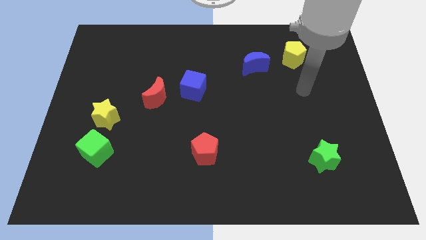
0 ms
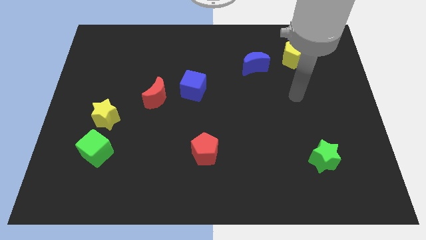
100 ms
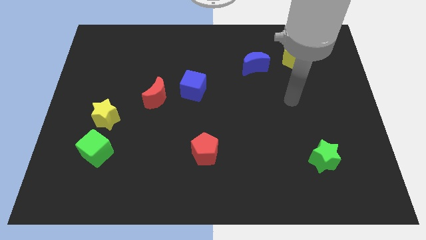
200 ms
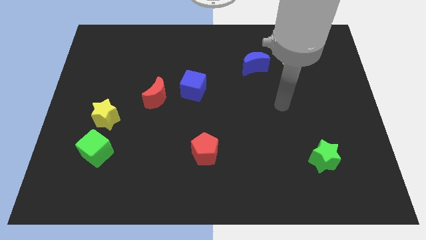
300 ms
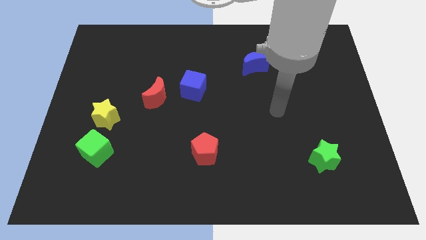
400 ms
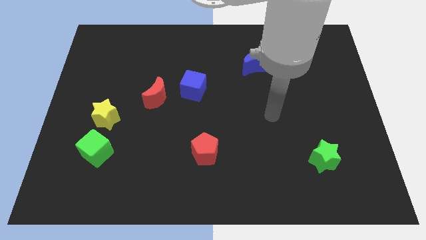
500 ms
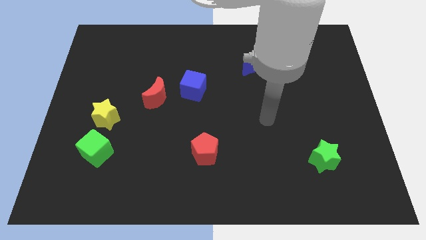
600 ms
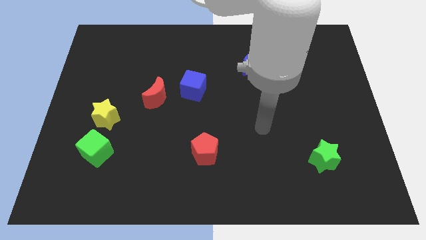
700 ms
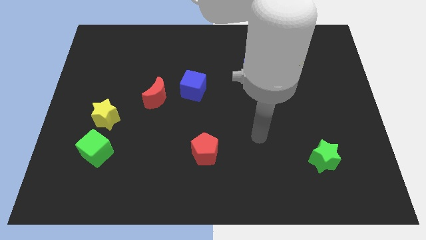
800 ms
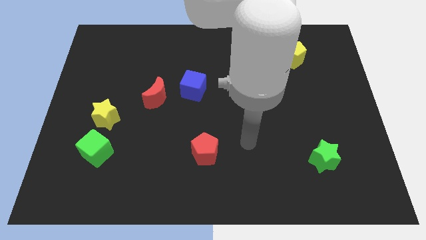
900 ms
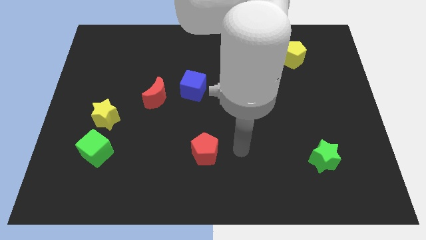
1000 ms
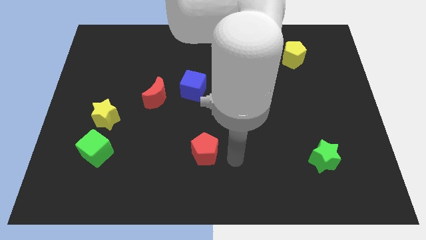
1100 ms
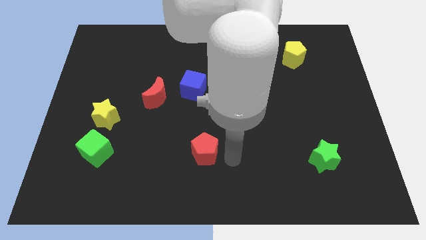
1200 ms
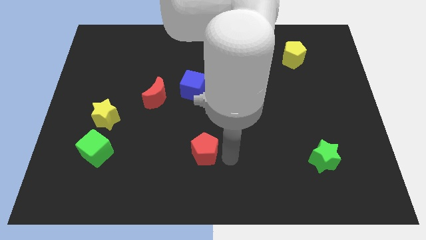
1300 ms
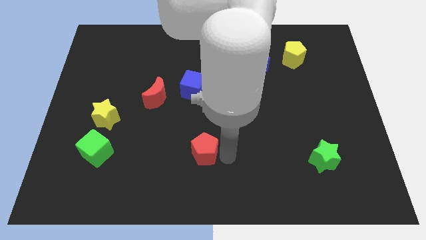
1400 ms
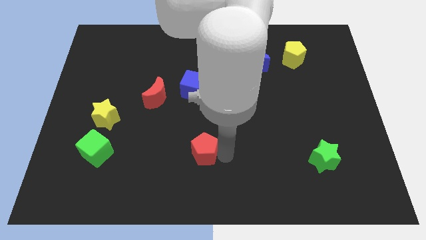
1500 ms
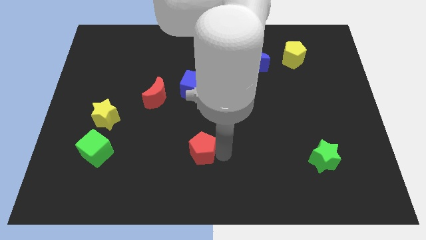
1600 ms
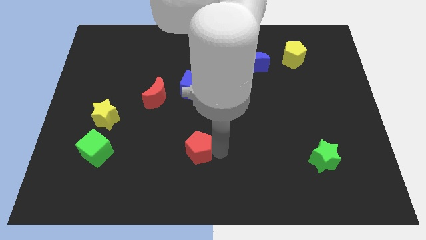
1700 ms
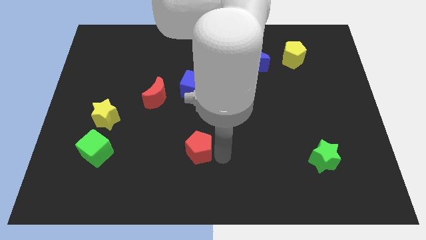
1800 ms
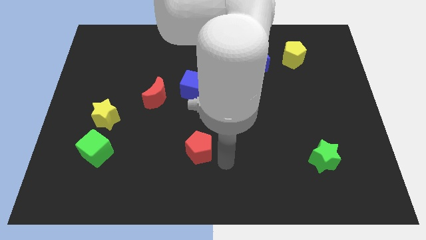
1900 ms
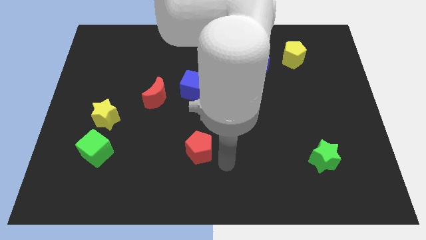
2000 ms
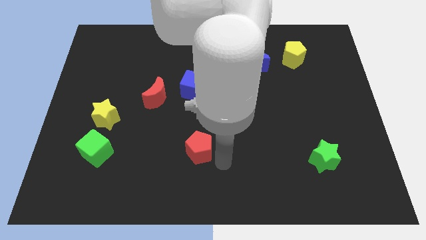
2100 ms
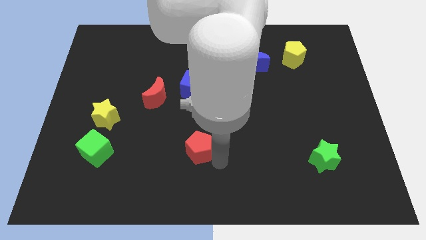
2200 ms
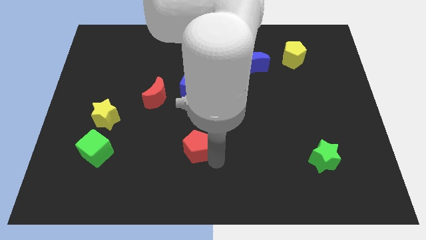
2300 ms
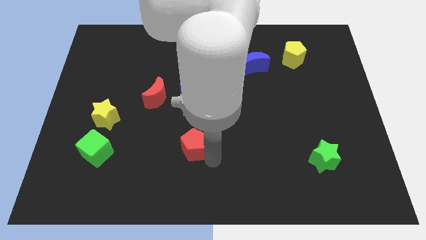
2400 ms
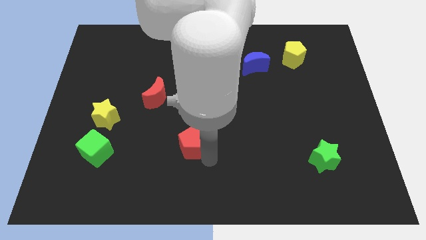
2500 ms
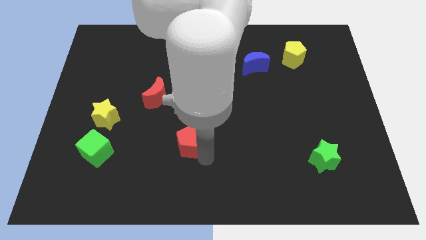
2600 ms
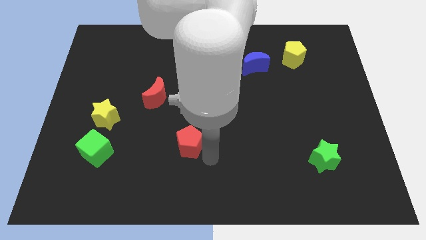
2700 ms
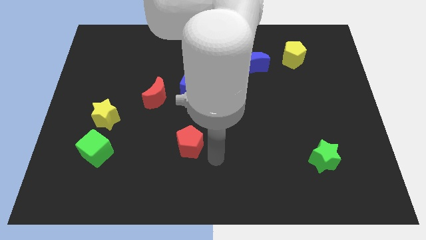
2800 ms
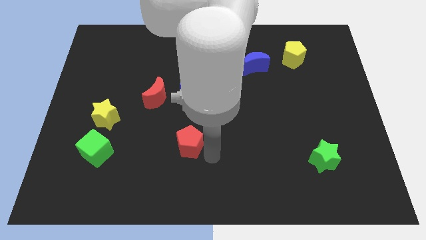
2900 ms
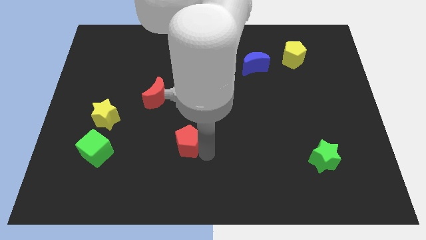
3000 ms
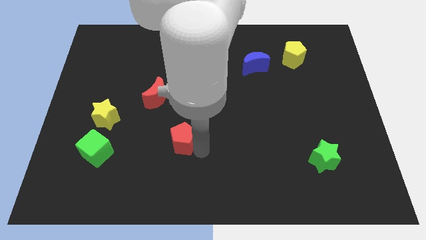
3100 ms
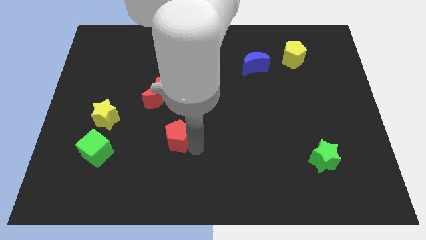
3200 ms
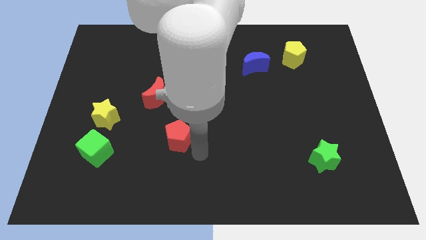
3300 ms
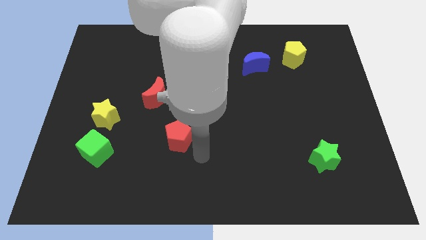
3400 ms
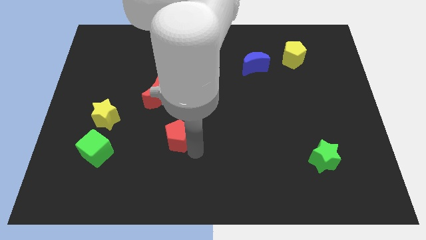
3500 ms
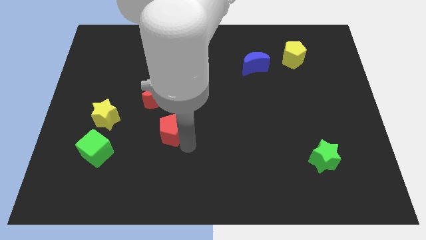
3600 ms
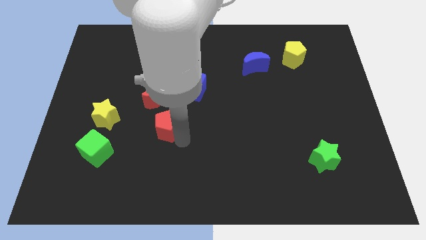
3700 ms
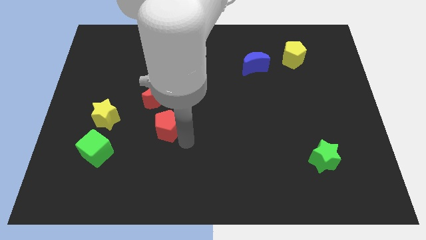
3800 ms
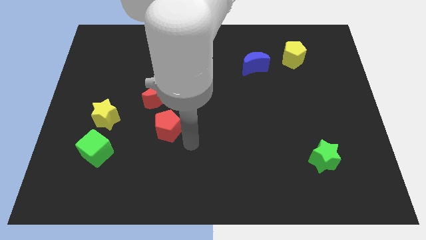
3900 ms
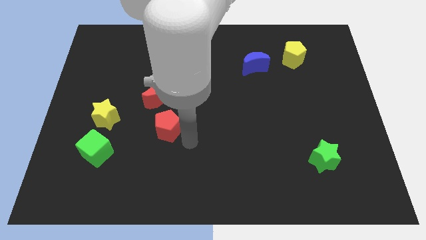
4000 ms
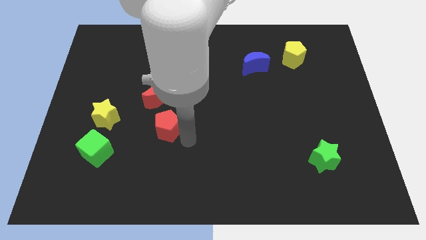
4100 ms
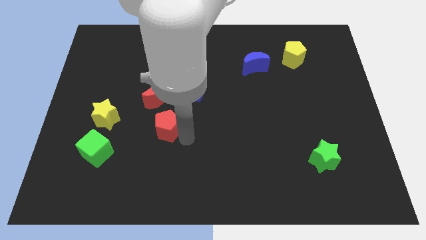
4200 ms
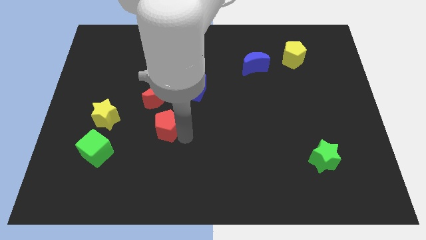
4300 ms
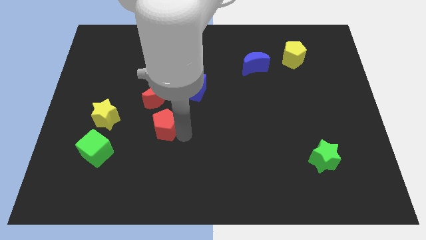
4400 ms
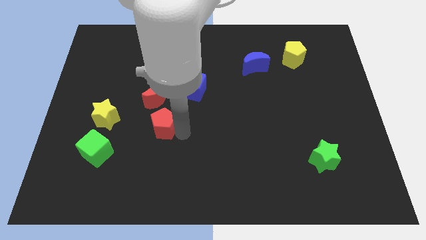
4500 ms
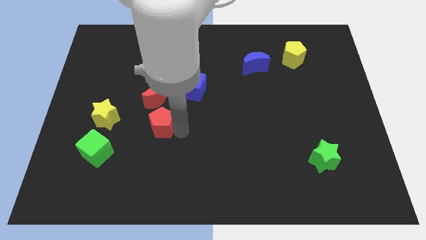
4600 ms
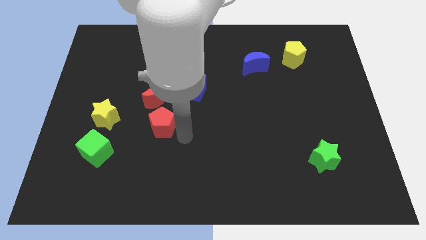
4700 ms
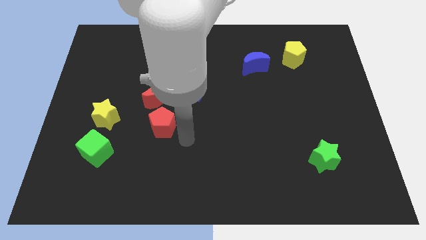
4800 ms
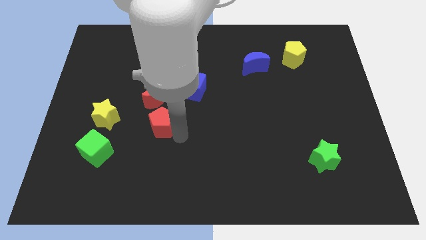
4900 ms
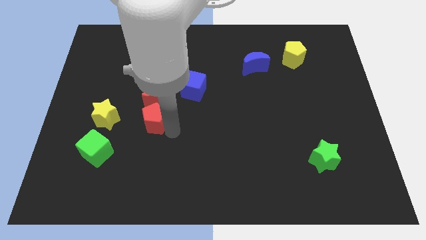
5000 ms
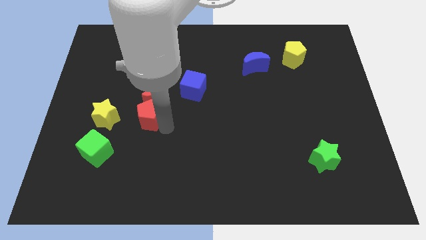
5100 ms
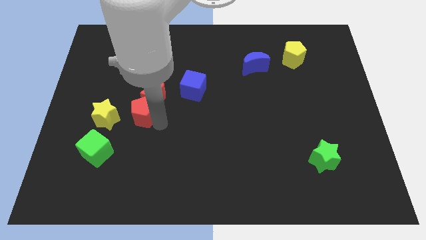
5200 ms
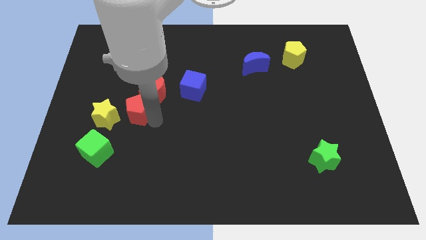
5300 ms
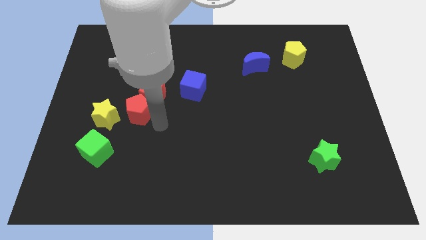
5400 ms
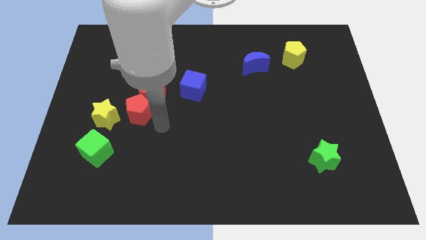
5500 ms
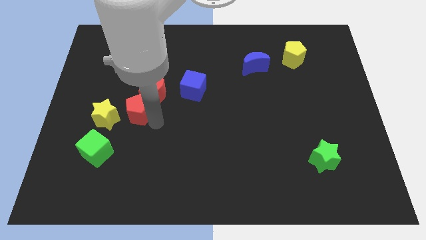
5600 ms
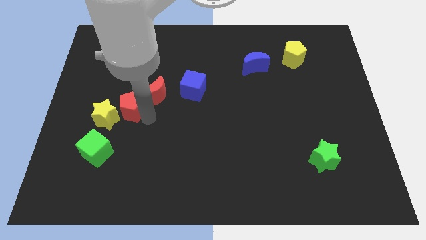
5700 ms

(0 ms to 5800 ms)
slide the red pentagon left of the red moon

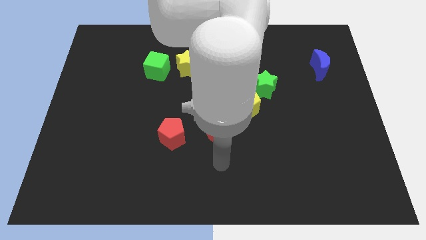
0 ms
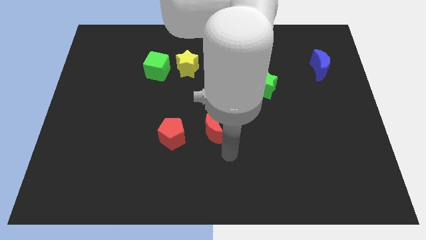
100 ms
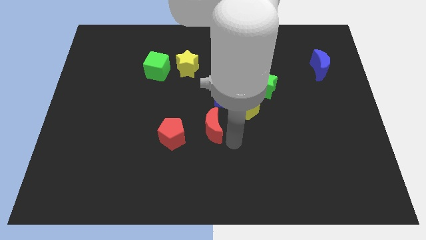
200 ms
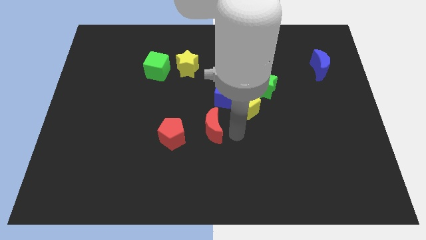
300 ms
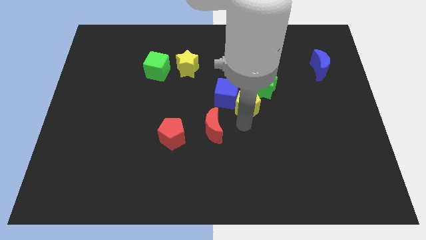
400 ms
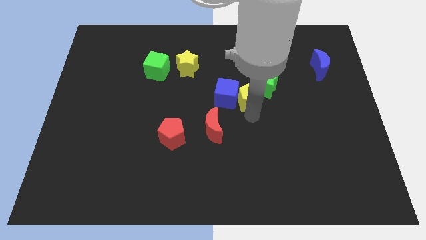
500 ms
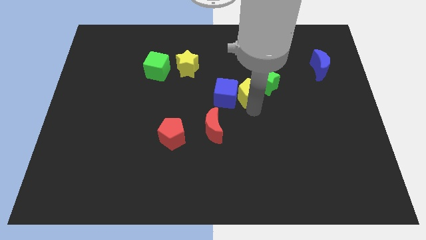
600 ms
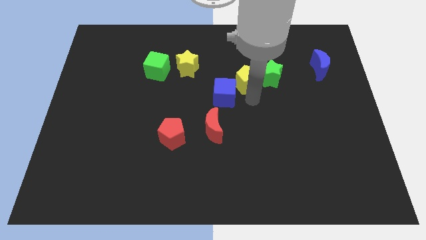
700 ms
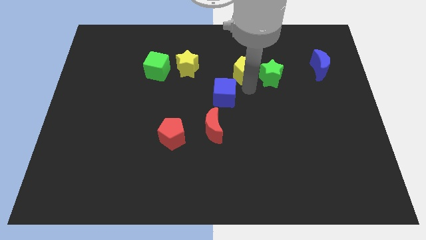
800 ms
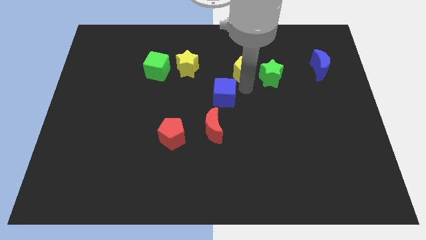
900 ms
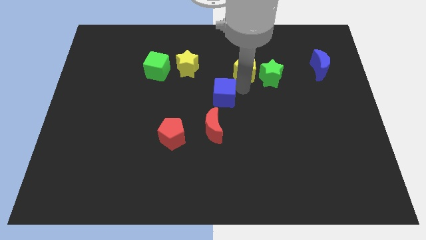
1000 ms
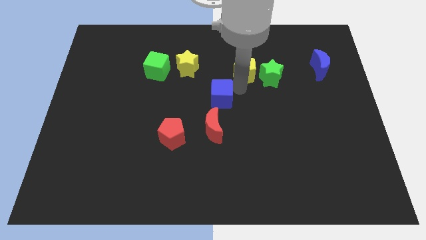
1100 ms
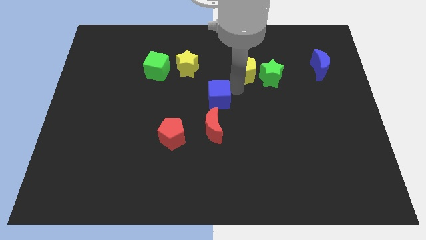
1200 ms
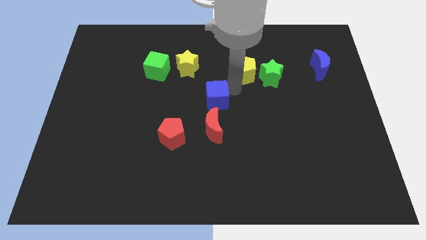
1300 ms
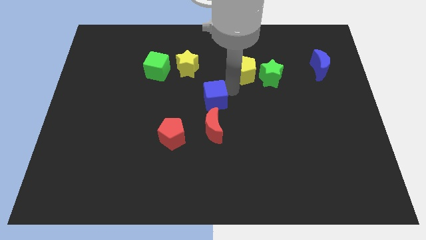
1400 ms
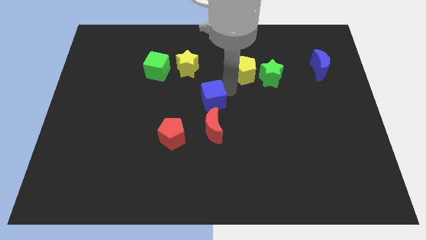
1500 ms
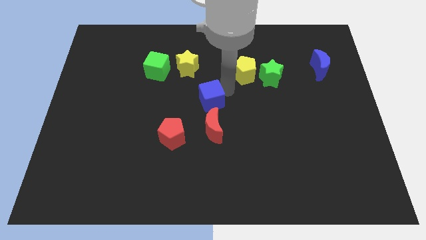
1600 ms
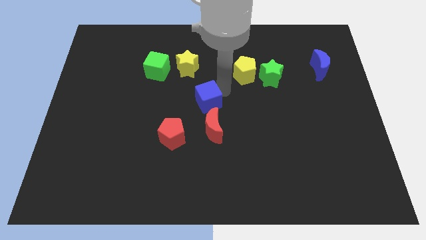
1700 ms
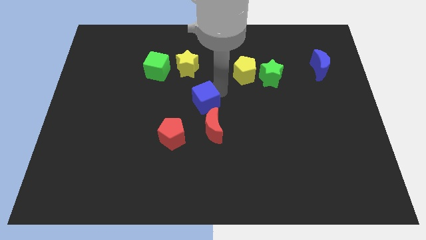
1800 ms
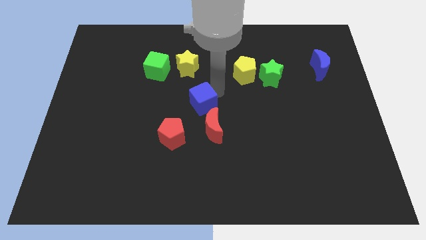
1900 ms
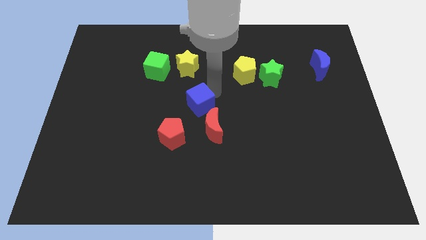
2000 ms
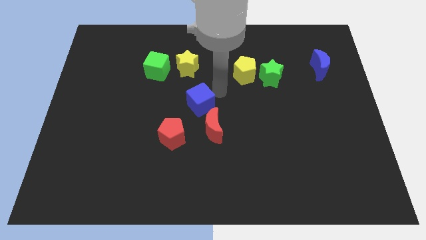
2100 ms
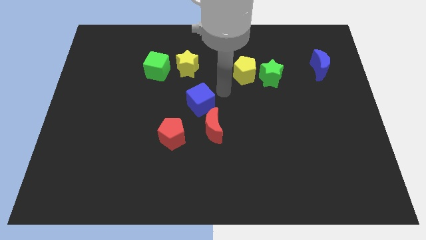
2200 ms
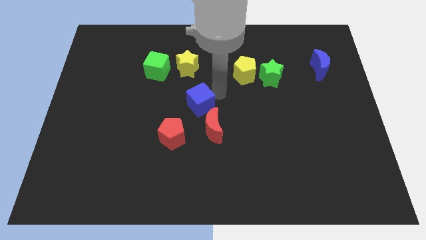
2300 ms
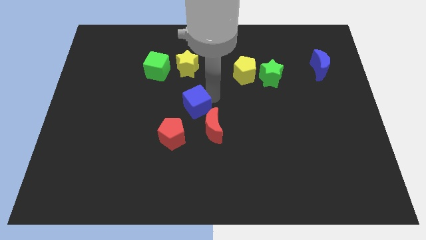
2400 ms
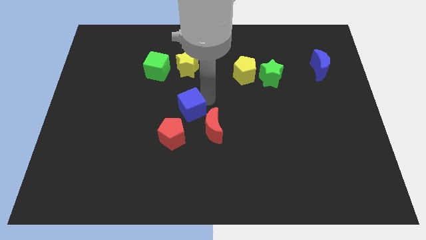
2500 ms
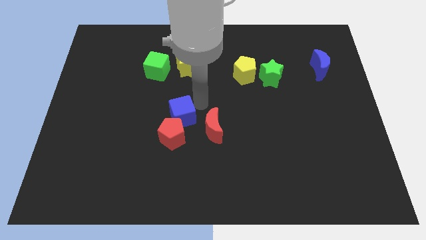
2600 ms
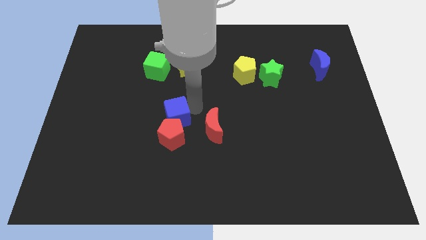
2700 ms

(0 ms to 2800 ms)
push the blue cube diagonally up and to the left of the red pentagon
